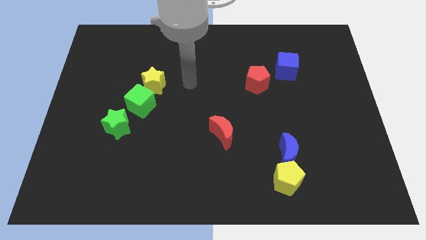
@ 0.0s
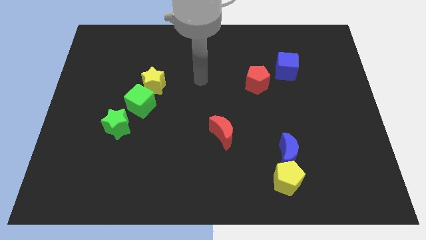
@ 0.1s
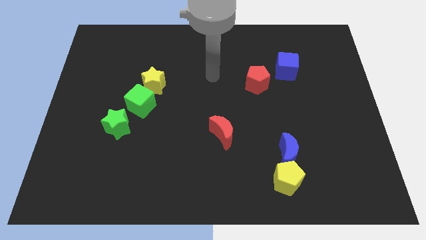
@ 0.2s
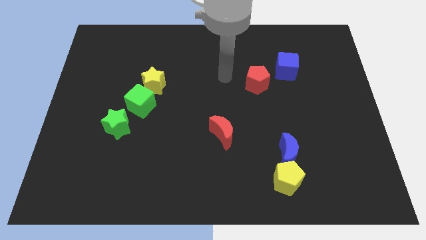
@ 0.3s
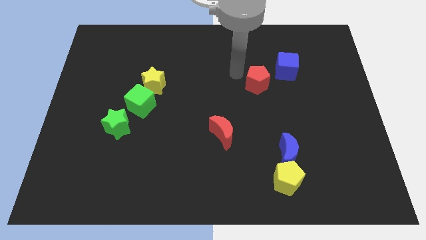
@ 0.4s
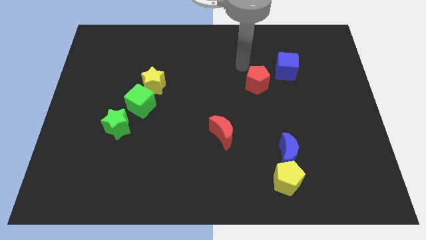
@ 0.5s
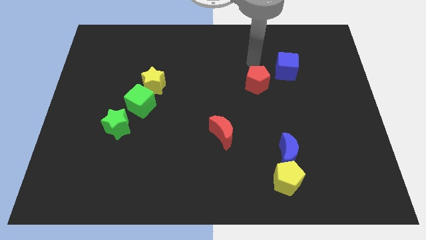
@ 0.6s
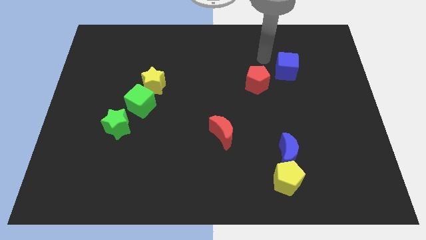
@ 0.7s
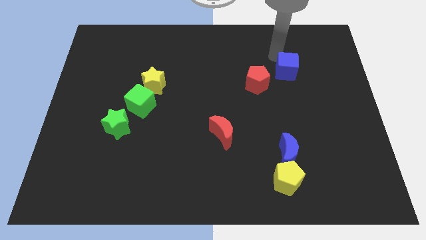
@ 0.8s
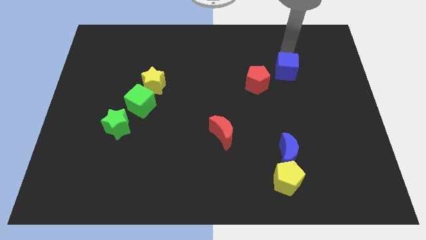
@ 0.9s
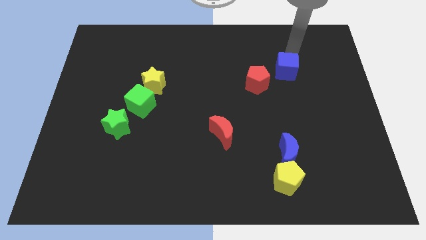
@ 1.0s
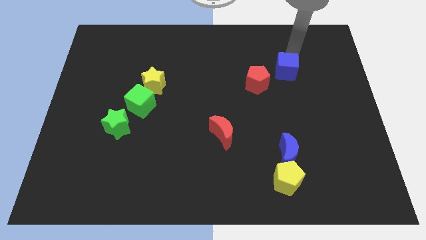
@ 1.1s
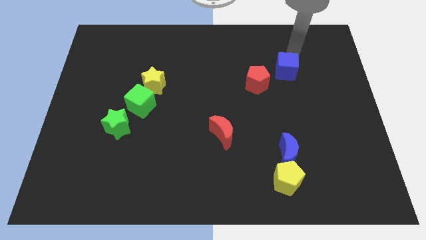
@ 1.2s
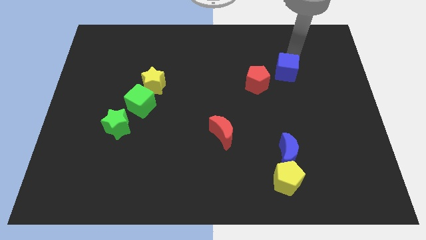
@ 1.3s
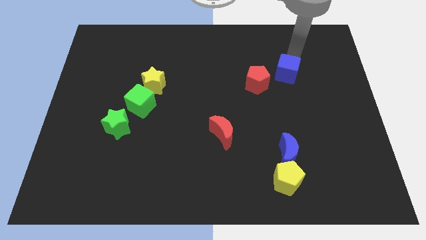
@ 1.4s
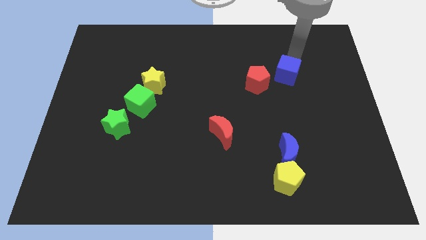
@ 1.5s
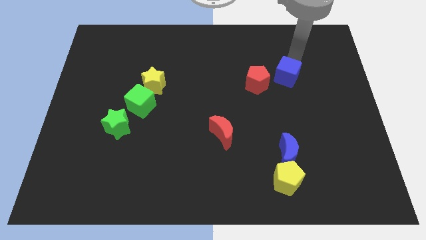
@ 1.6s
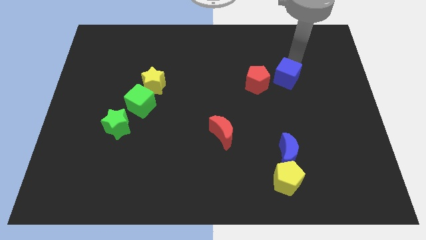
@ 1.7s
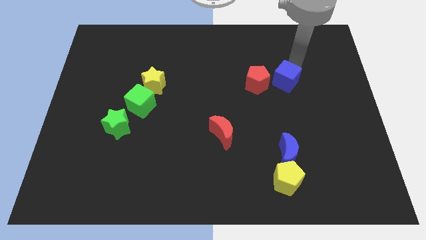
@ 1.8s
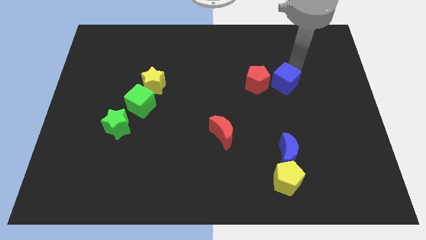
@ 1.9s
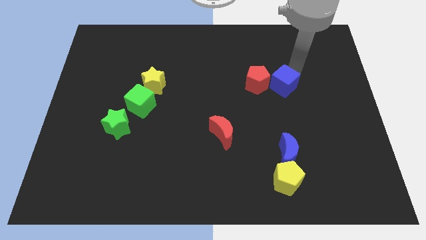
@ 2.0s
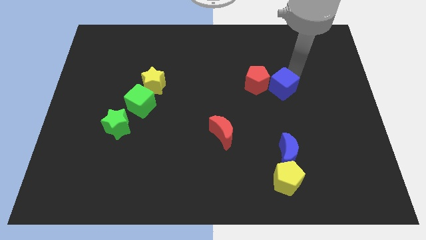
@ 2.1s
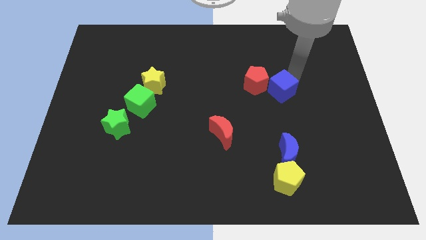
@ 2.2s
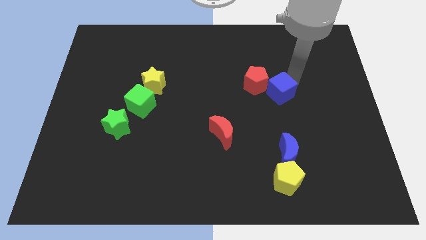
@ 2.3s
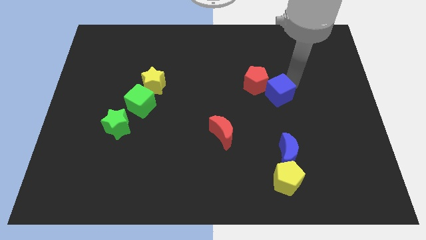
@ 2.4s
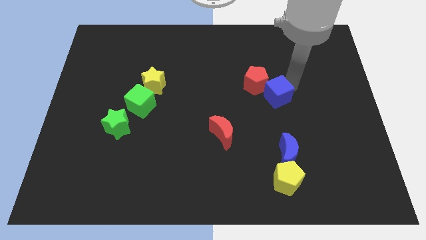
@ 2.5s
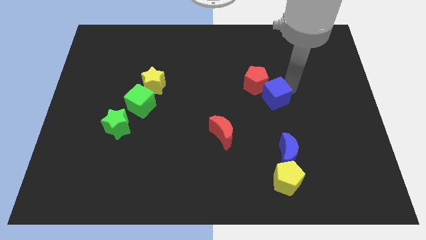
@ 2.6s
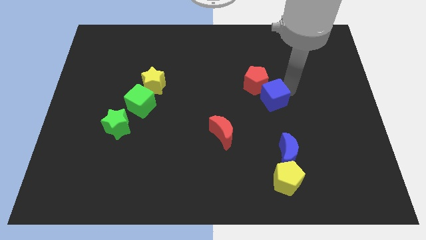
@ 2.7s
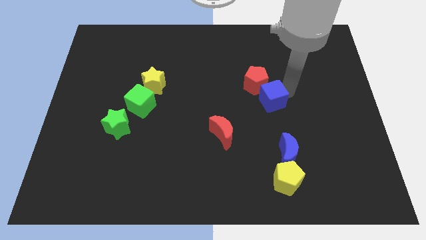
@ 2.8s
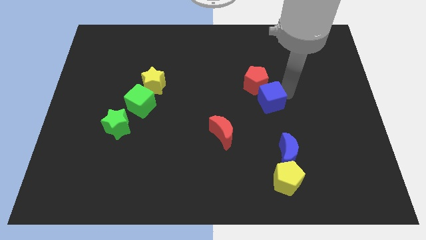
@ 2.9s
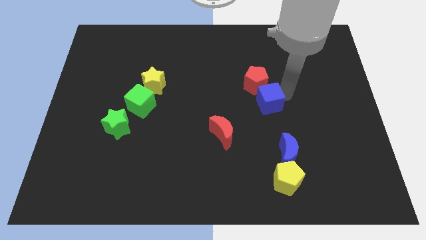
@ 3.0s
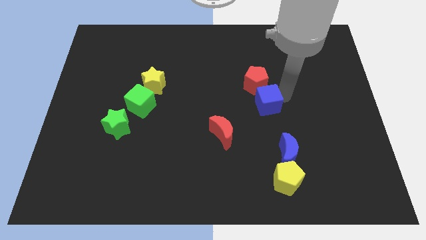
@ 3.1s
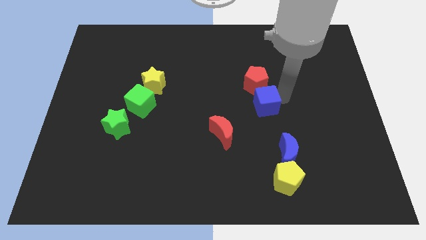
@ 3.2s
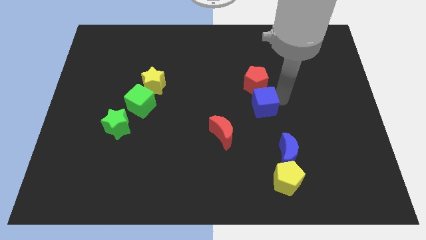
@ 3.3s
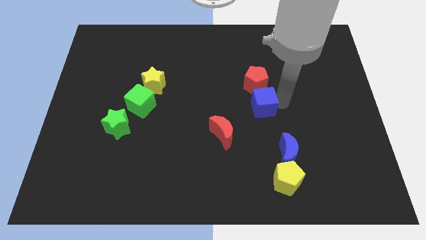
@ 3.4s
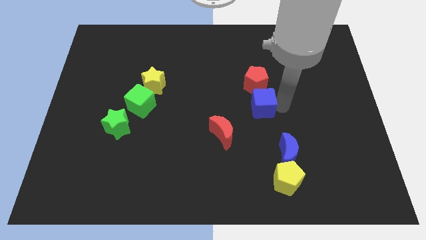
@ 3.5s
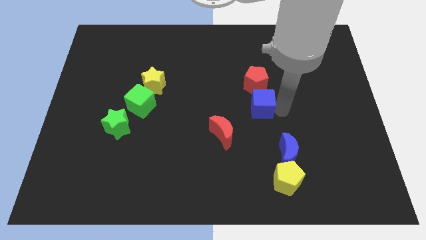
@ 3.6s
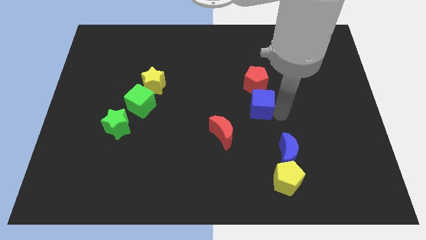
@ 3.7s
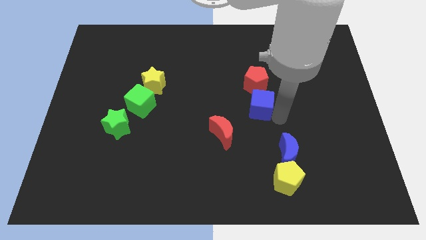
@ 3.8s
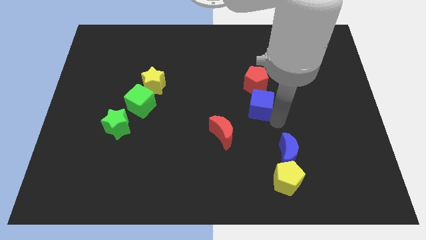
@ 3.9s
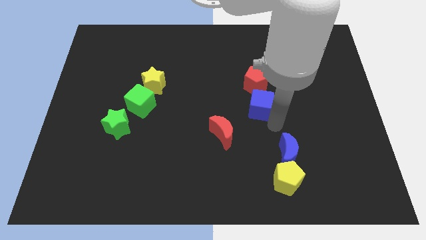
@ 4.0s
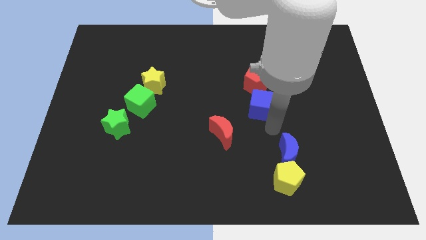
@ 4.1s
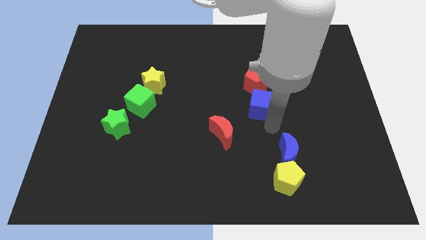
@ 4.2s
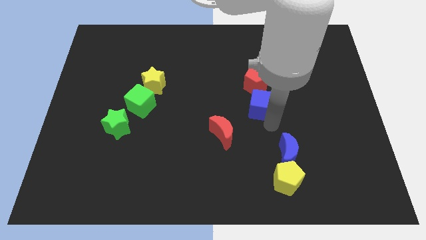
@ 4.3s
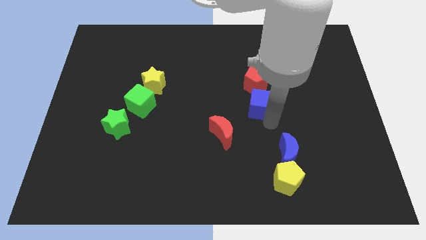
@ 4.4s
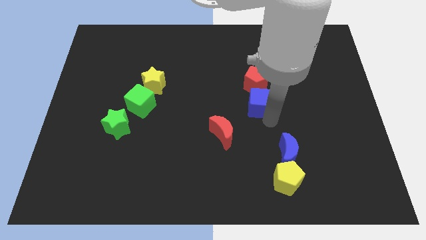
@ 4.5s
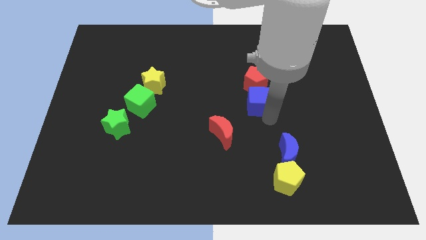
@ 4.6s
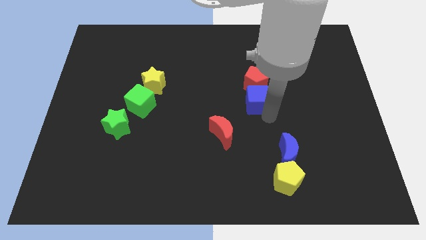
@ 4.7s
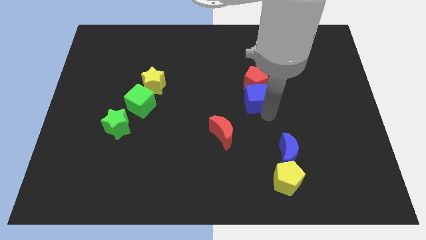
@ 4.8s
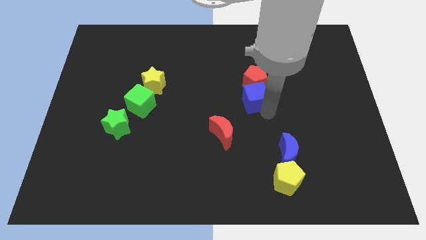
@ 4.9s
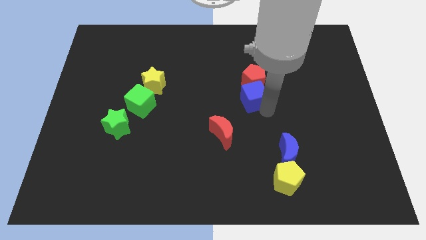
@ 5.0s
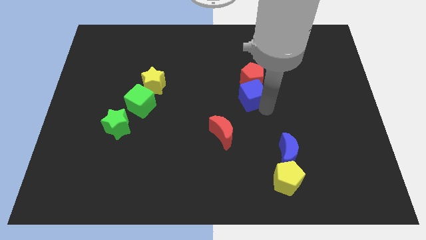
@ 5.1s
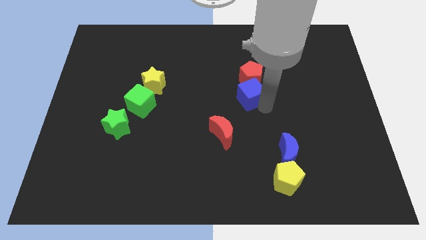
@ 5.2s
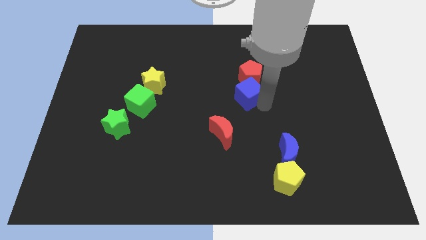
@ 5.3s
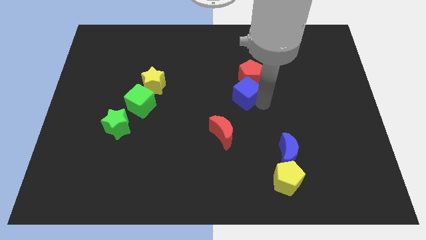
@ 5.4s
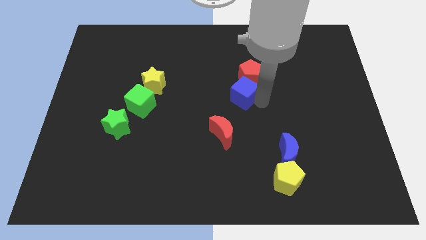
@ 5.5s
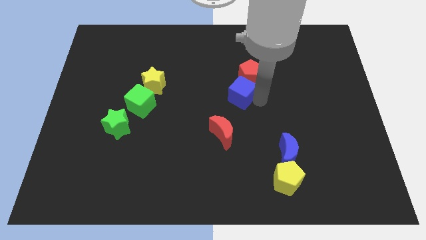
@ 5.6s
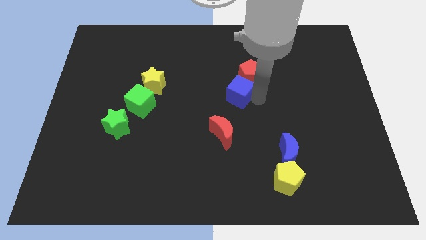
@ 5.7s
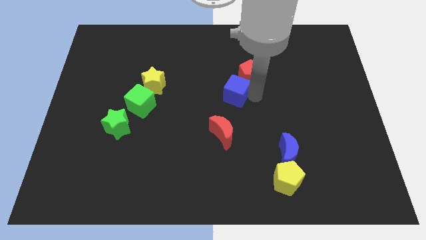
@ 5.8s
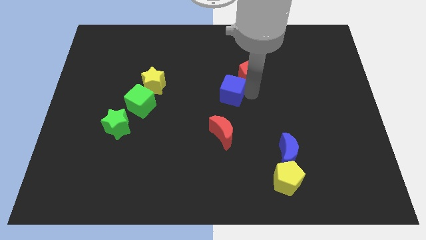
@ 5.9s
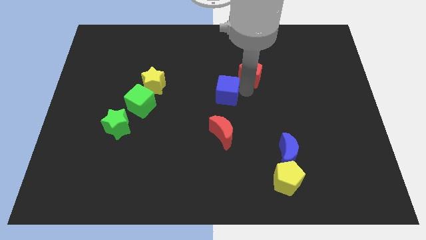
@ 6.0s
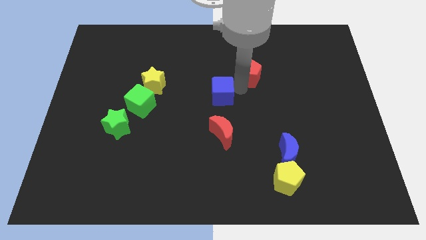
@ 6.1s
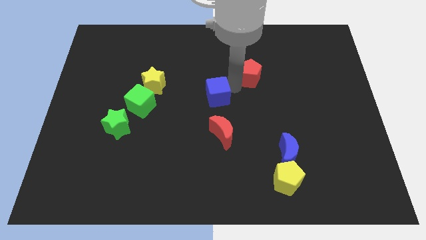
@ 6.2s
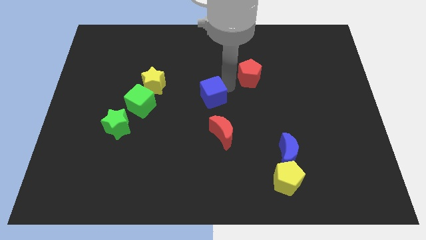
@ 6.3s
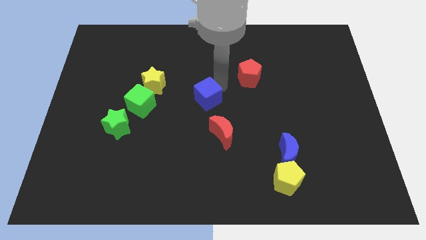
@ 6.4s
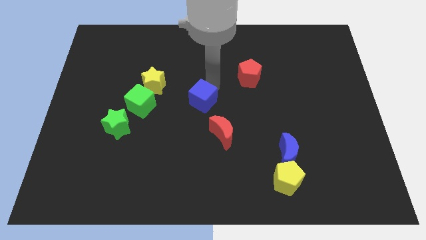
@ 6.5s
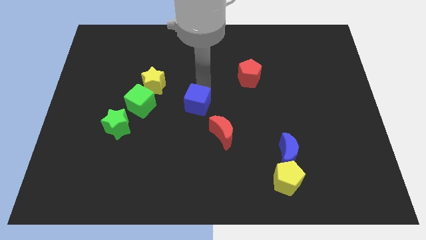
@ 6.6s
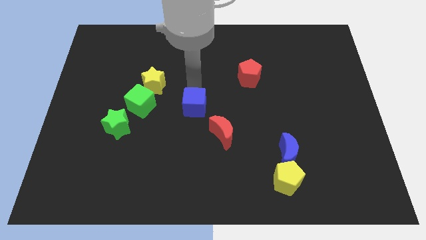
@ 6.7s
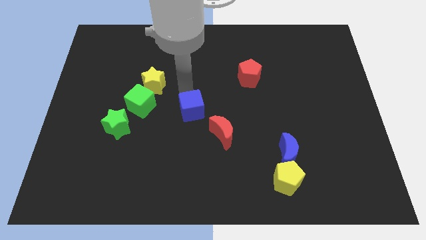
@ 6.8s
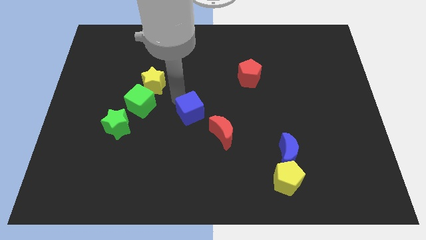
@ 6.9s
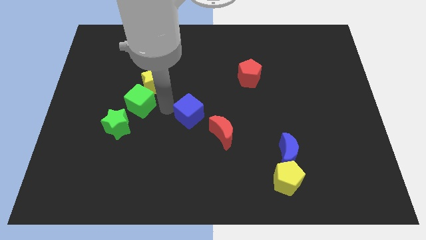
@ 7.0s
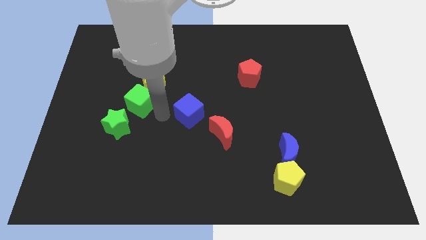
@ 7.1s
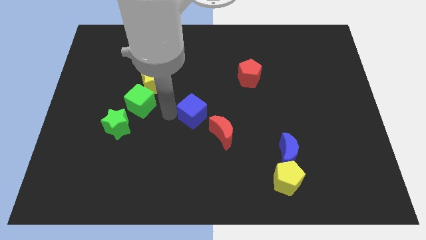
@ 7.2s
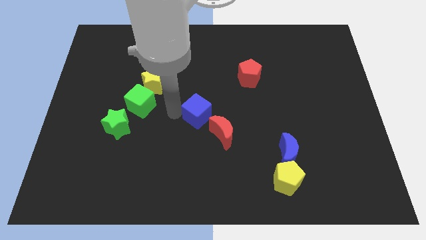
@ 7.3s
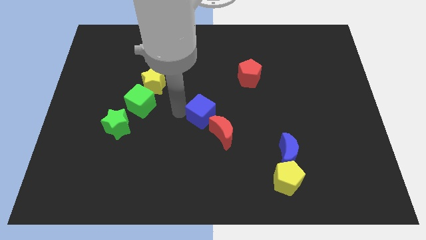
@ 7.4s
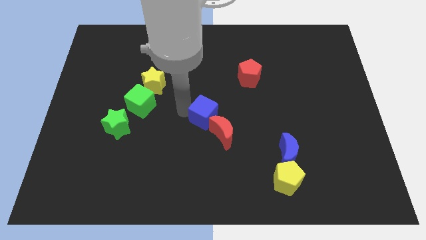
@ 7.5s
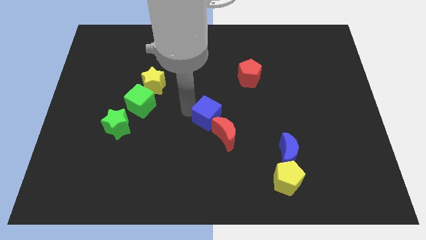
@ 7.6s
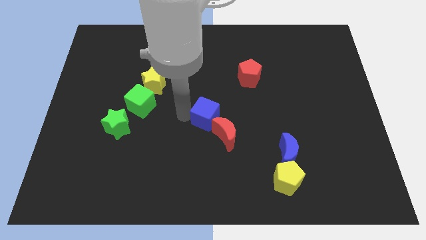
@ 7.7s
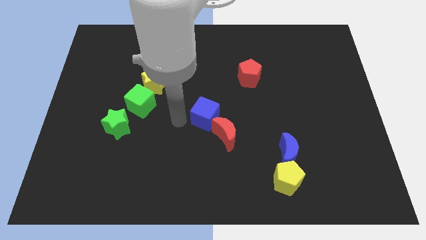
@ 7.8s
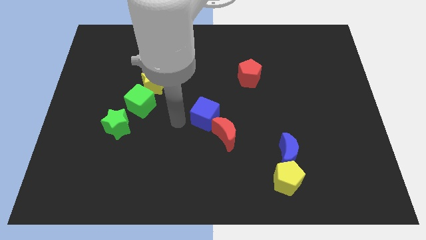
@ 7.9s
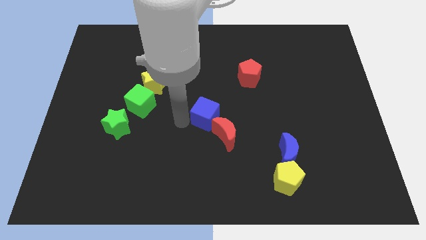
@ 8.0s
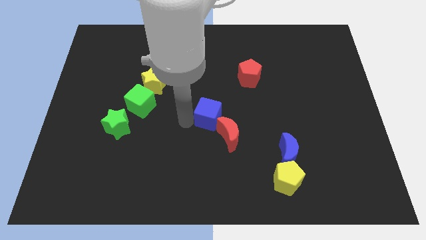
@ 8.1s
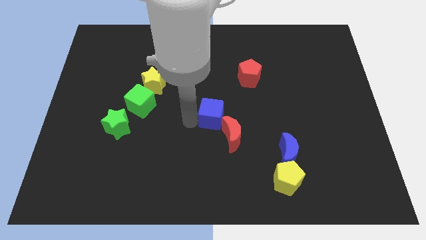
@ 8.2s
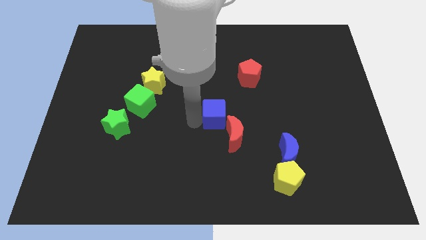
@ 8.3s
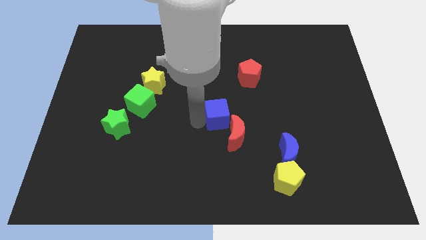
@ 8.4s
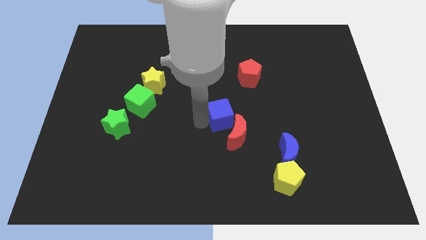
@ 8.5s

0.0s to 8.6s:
push the blue cube close to the red moon
